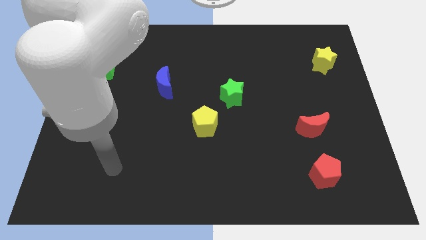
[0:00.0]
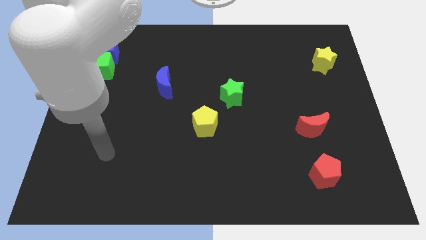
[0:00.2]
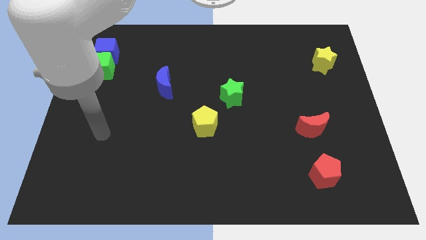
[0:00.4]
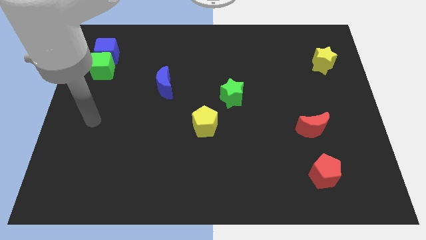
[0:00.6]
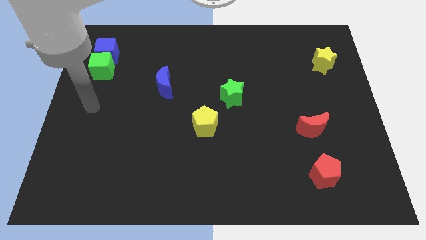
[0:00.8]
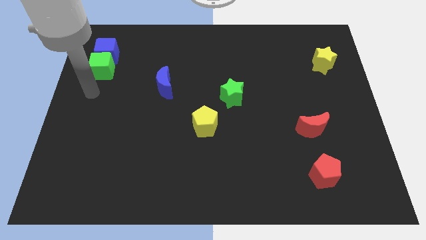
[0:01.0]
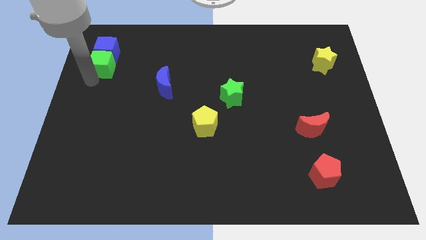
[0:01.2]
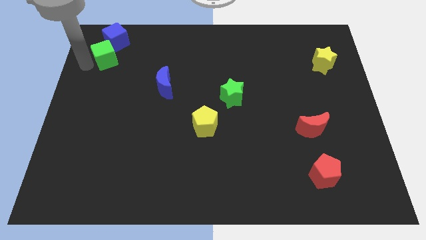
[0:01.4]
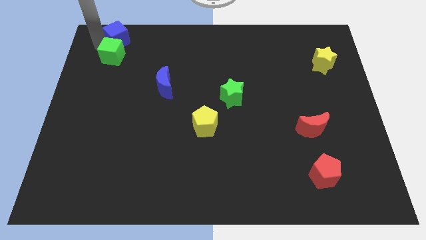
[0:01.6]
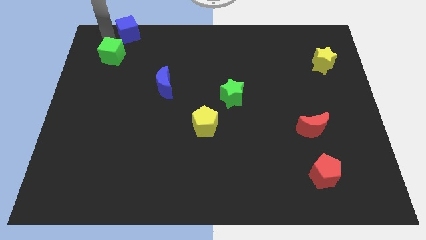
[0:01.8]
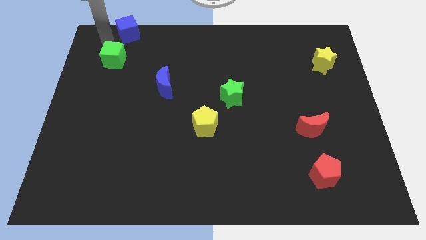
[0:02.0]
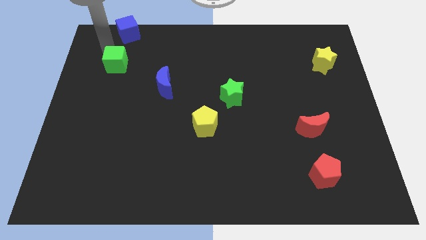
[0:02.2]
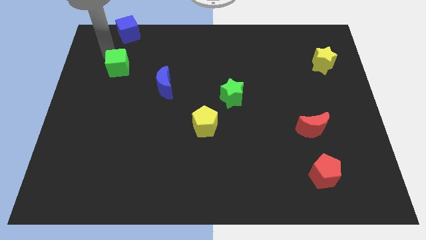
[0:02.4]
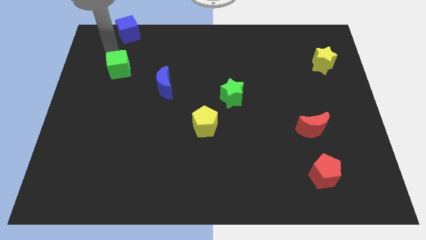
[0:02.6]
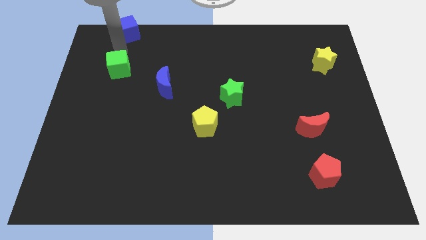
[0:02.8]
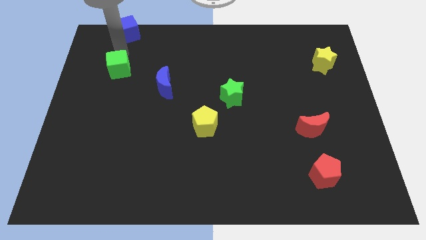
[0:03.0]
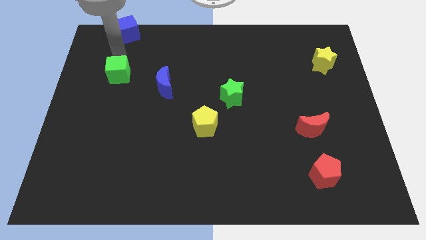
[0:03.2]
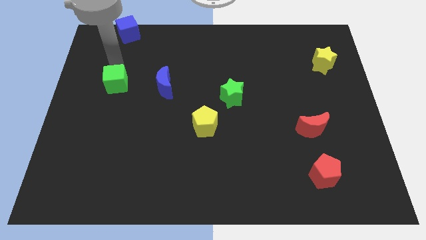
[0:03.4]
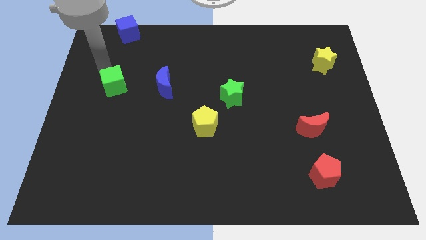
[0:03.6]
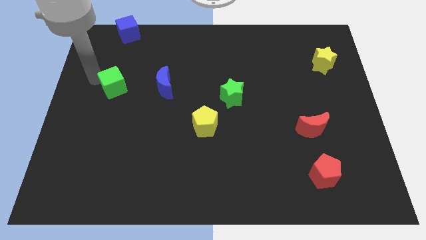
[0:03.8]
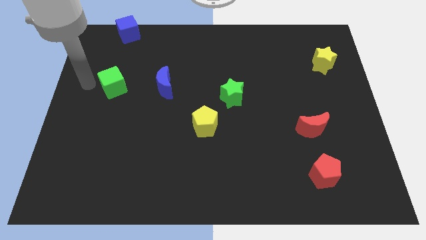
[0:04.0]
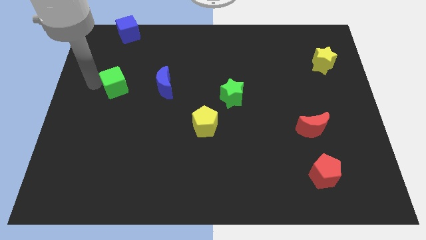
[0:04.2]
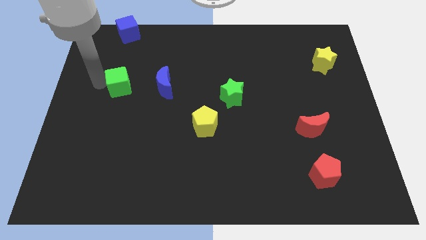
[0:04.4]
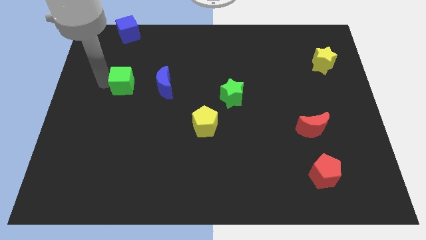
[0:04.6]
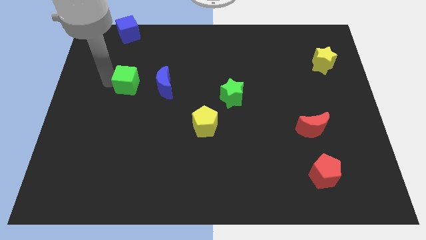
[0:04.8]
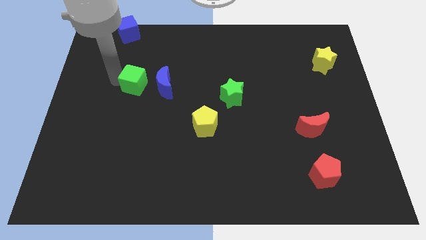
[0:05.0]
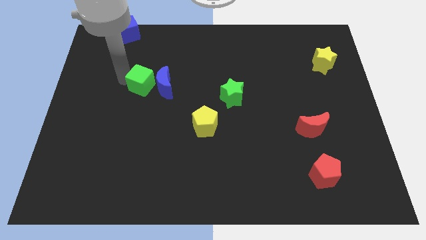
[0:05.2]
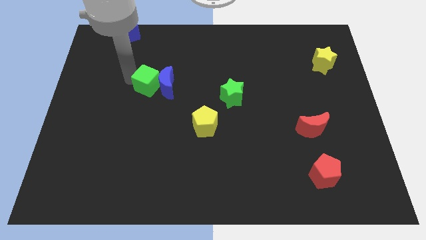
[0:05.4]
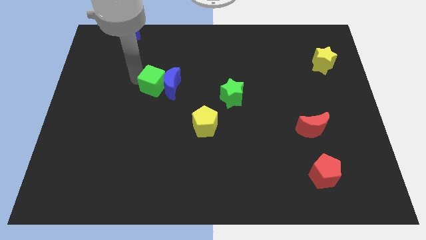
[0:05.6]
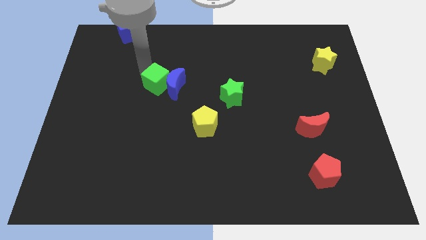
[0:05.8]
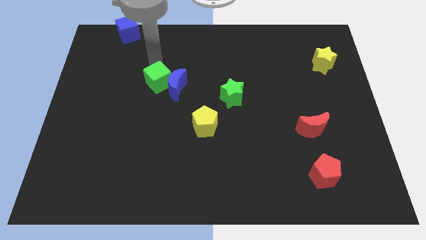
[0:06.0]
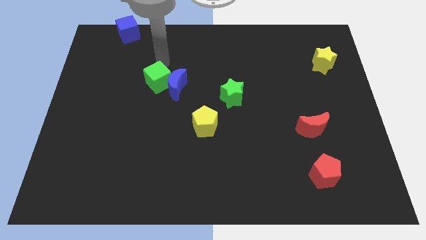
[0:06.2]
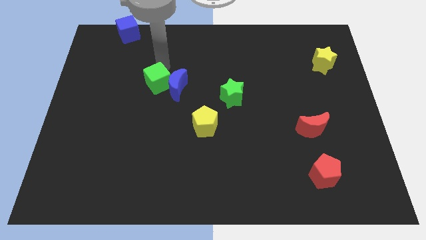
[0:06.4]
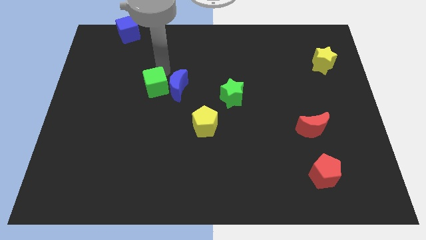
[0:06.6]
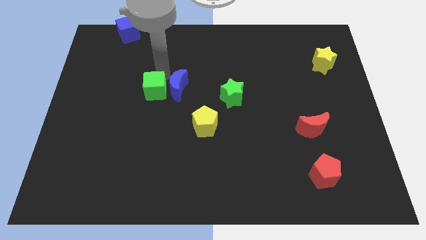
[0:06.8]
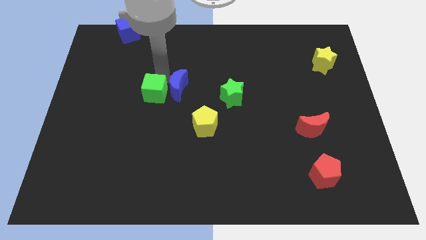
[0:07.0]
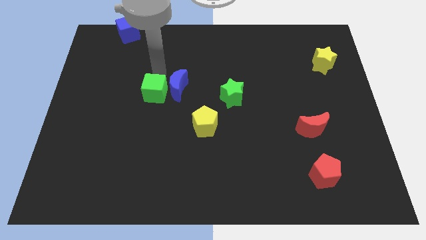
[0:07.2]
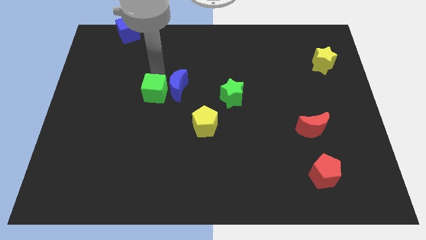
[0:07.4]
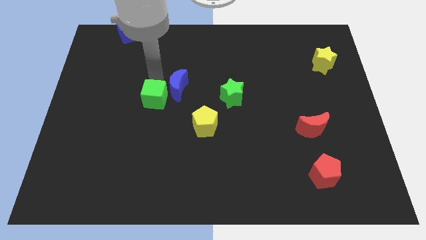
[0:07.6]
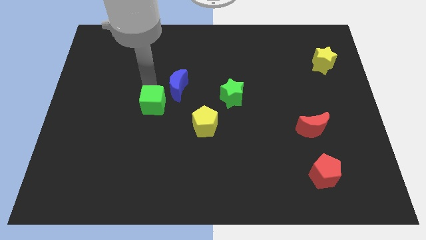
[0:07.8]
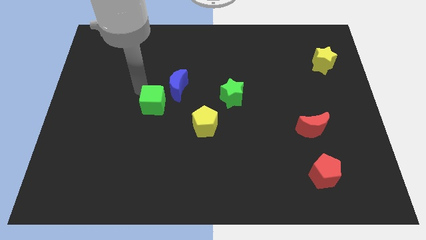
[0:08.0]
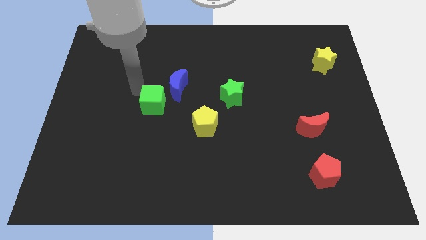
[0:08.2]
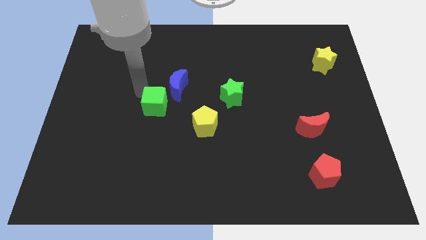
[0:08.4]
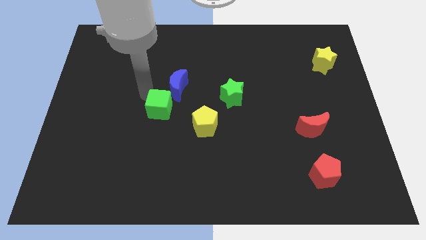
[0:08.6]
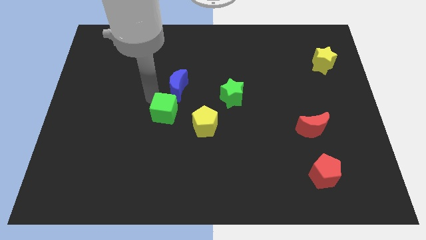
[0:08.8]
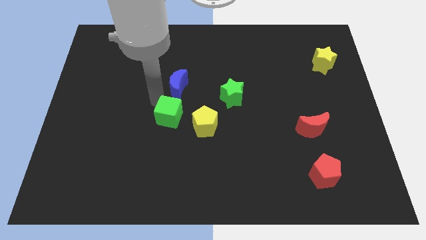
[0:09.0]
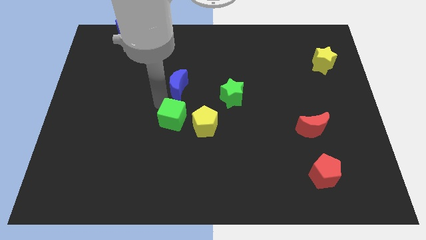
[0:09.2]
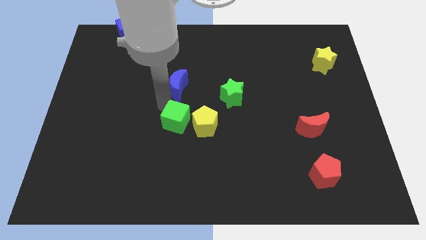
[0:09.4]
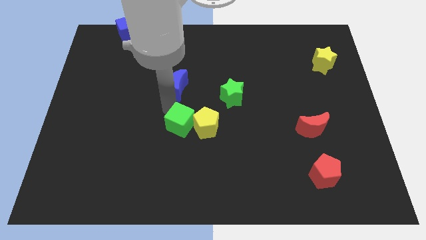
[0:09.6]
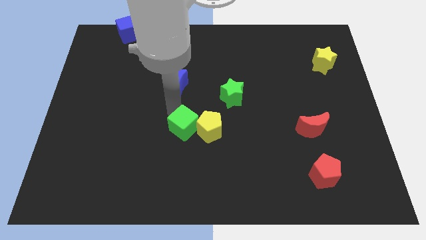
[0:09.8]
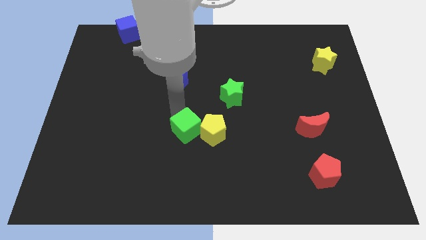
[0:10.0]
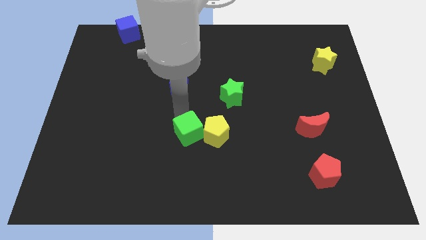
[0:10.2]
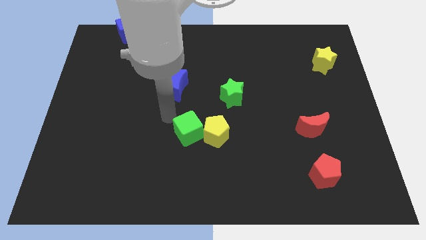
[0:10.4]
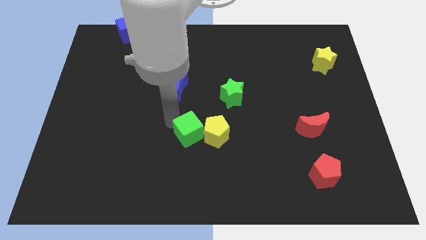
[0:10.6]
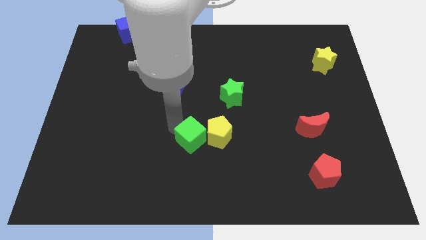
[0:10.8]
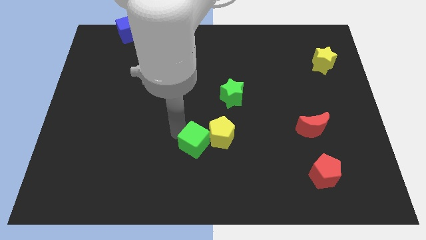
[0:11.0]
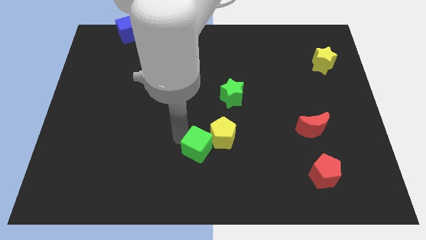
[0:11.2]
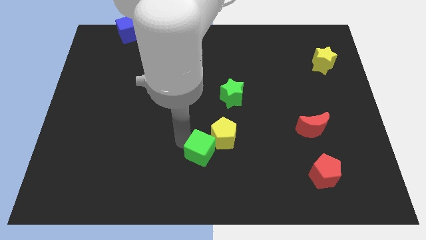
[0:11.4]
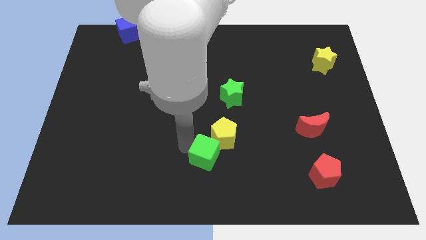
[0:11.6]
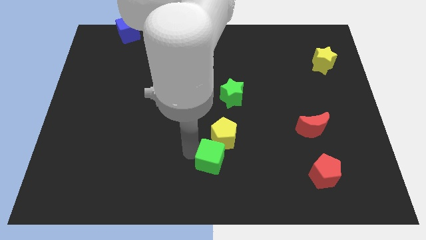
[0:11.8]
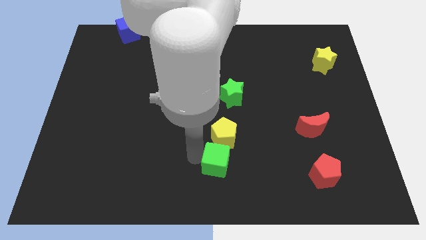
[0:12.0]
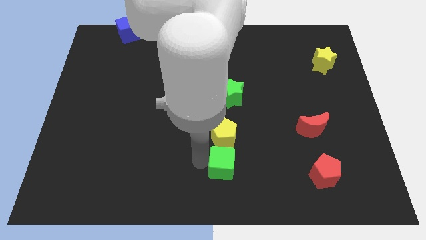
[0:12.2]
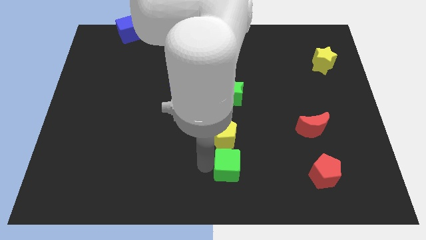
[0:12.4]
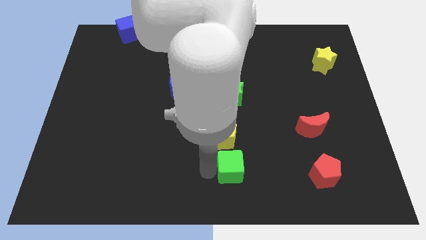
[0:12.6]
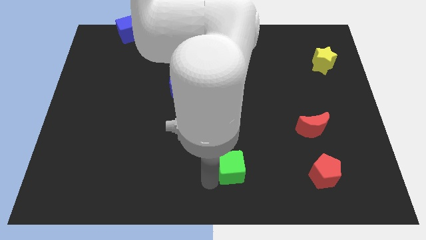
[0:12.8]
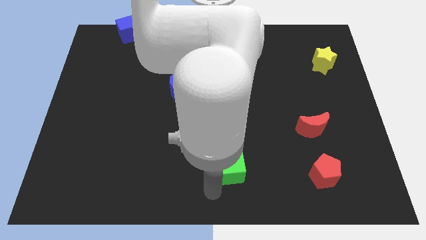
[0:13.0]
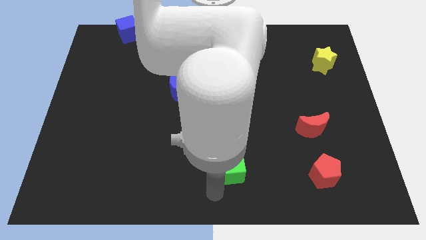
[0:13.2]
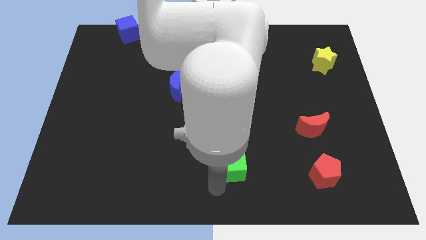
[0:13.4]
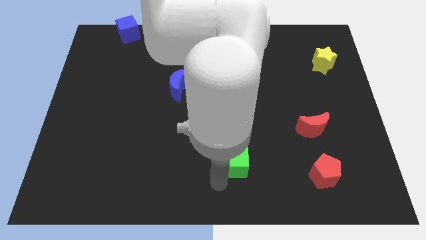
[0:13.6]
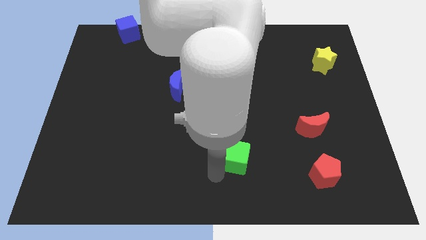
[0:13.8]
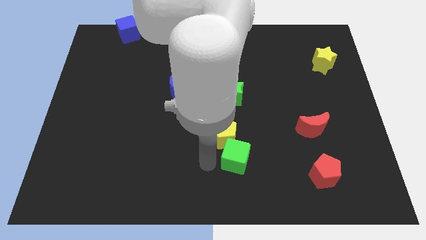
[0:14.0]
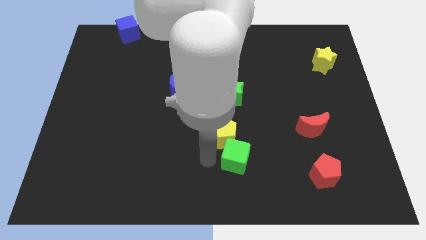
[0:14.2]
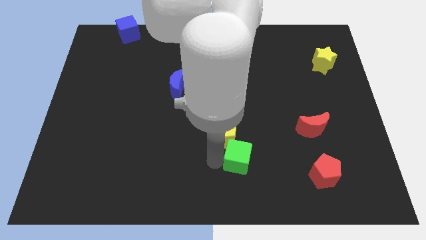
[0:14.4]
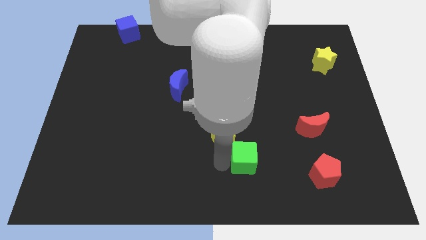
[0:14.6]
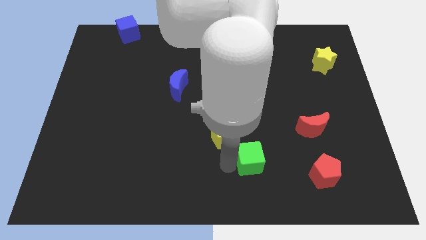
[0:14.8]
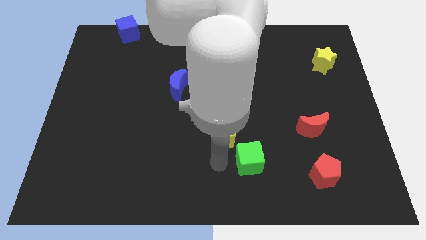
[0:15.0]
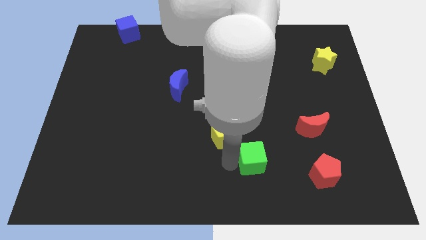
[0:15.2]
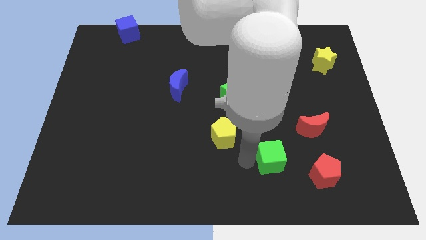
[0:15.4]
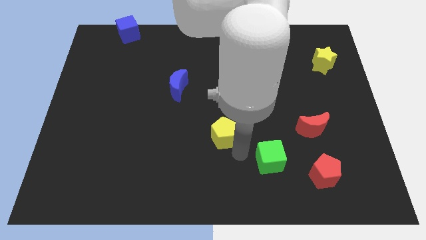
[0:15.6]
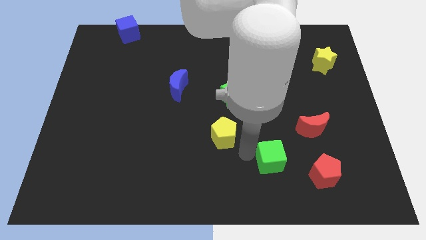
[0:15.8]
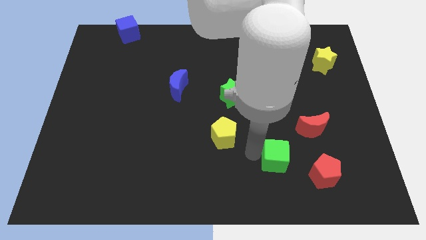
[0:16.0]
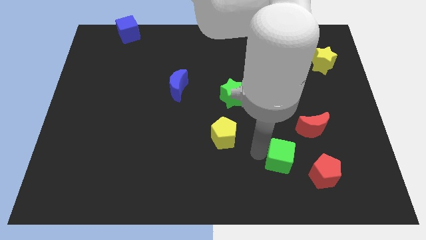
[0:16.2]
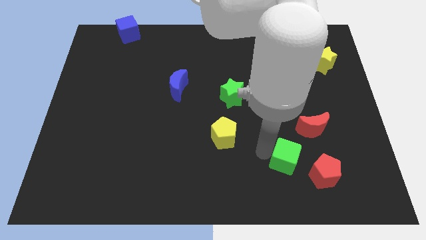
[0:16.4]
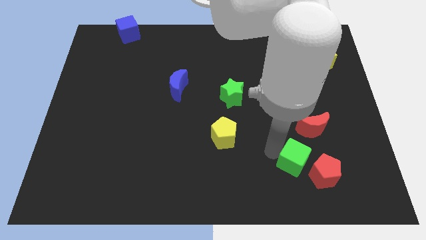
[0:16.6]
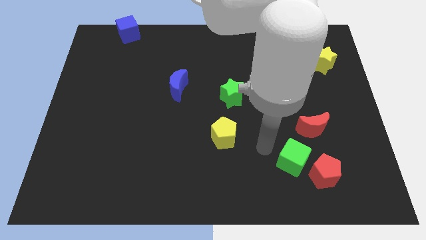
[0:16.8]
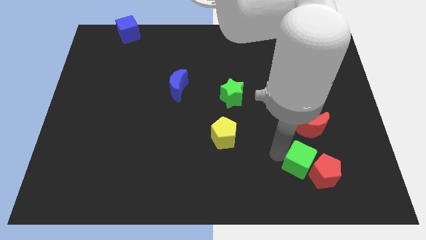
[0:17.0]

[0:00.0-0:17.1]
put the green cube next to the red pentagon
